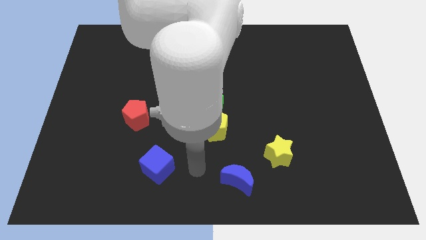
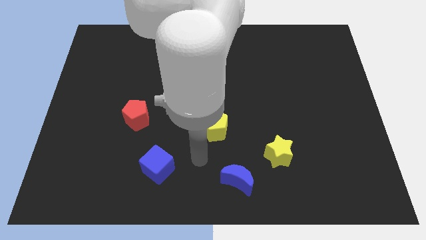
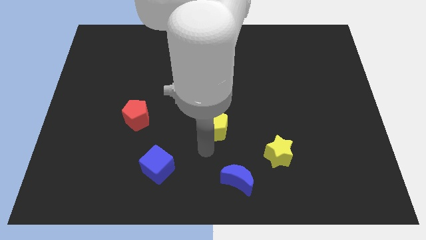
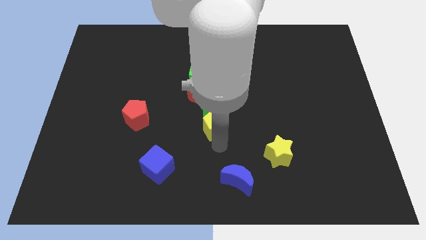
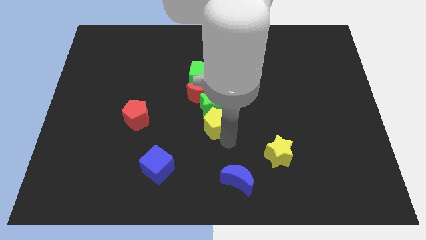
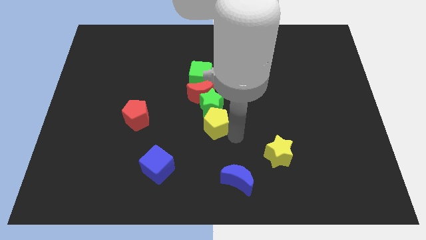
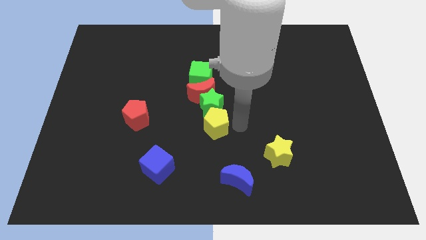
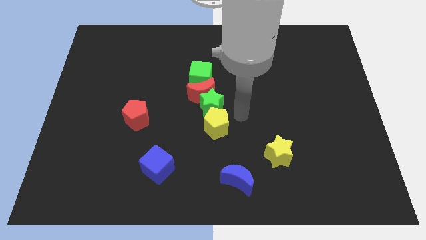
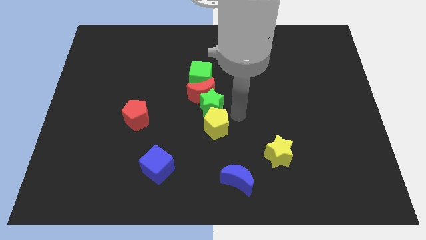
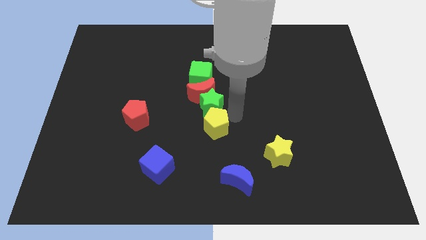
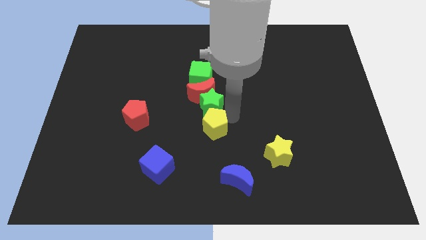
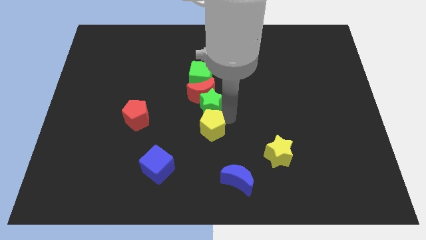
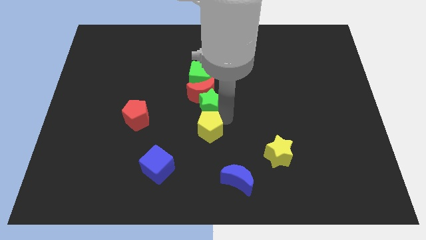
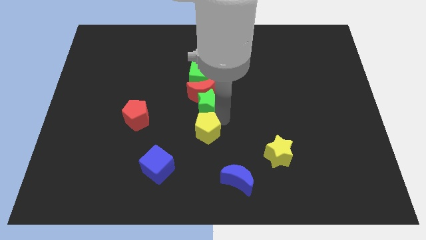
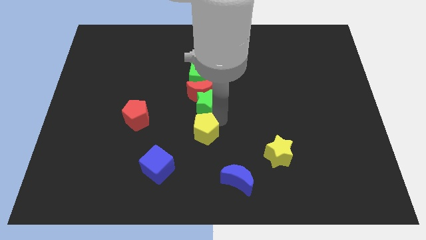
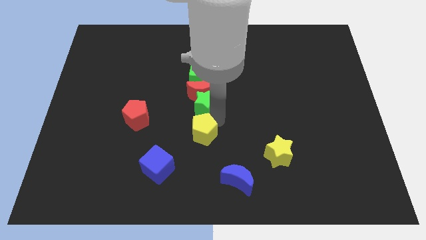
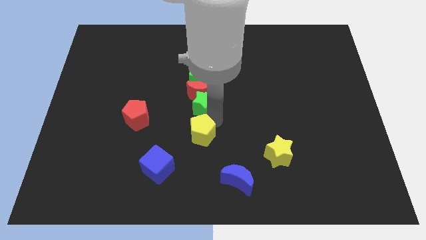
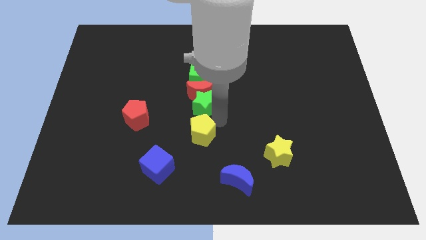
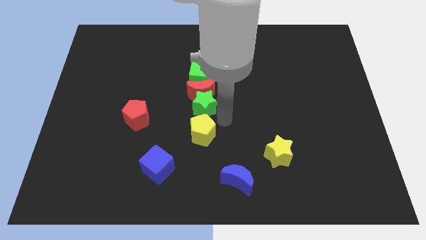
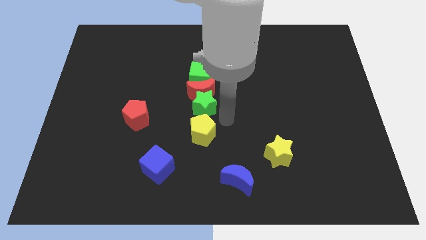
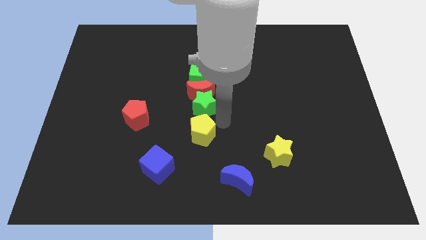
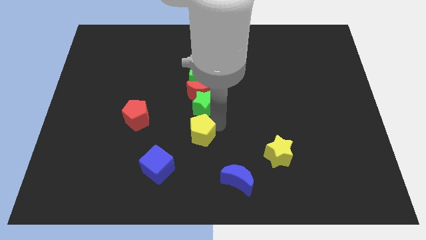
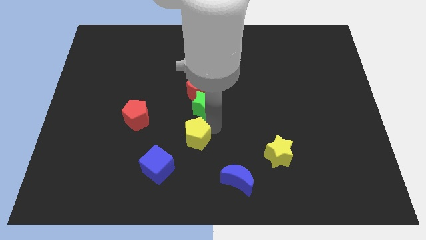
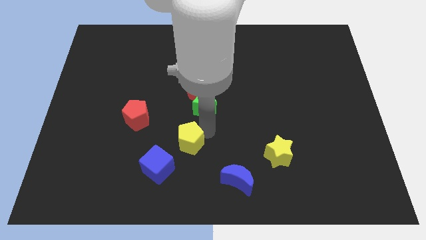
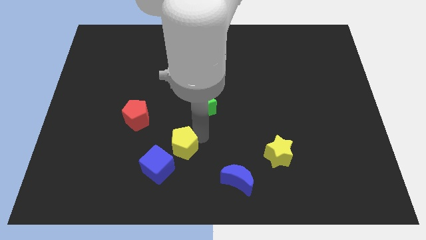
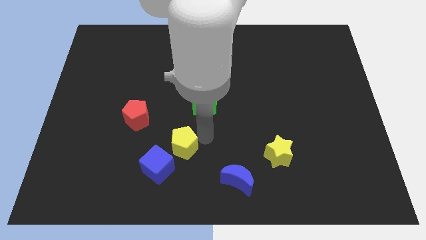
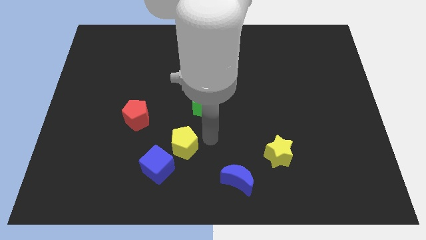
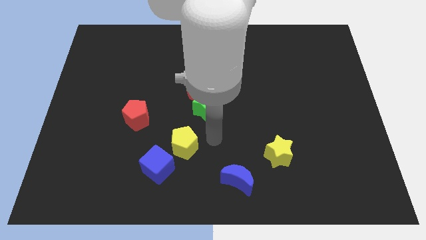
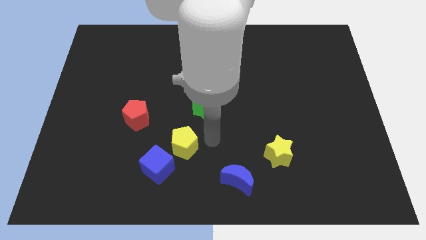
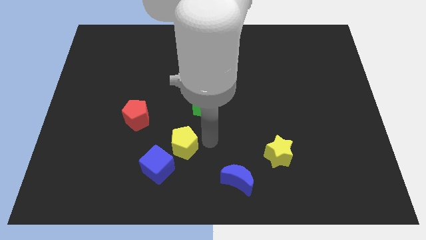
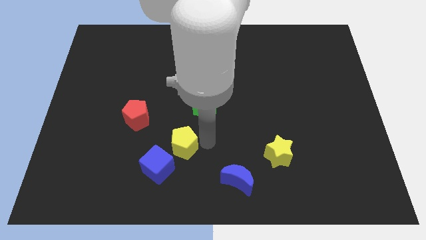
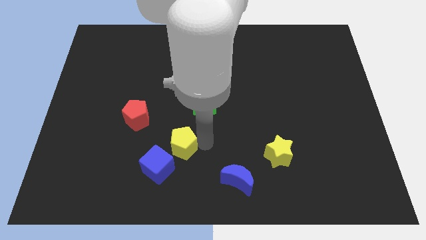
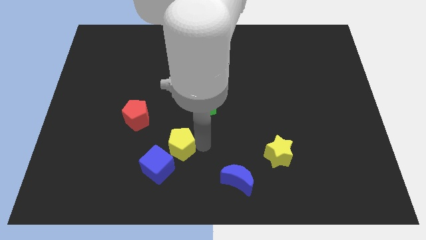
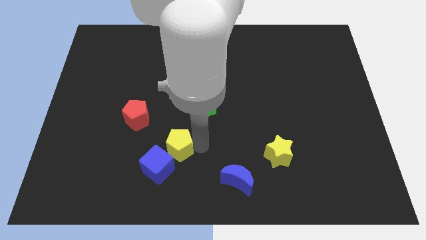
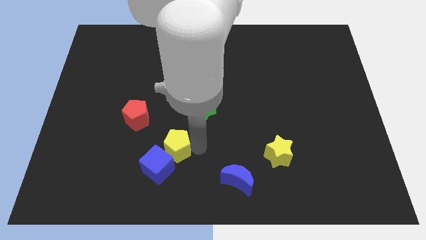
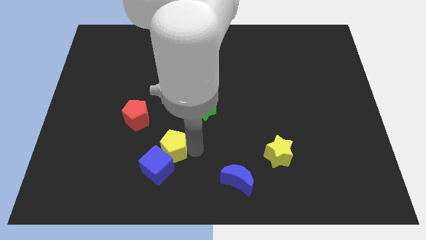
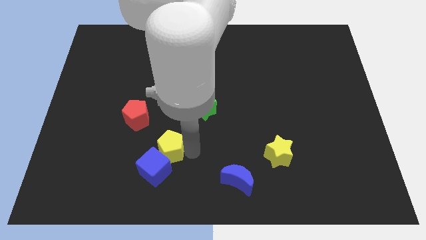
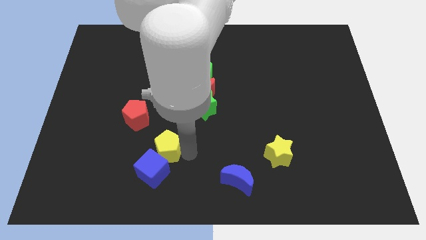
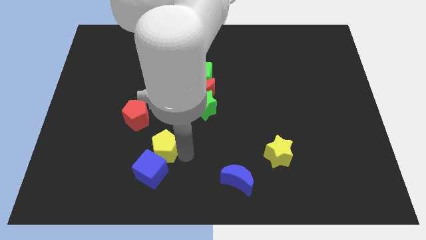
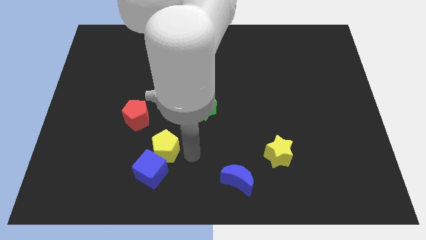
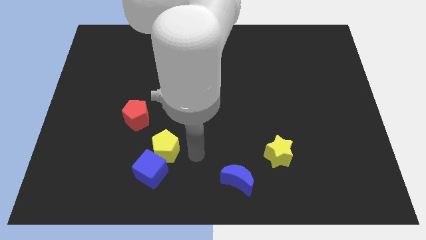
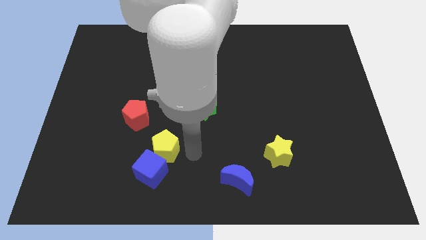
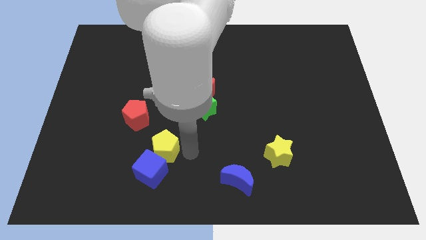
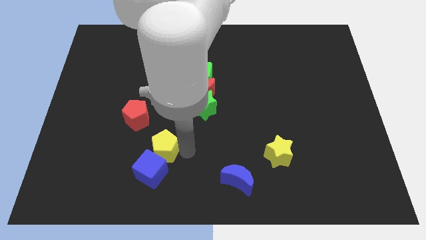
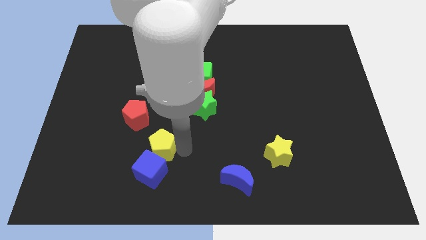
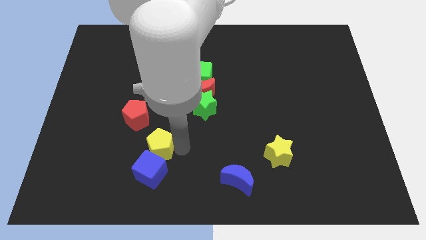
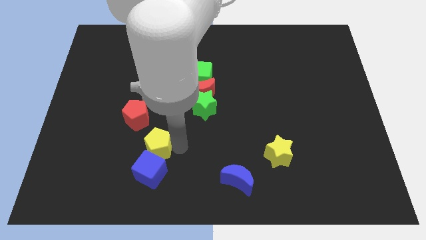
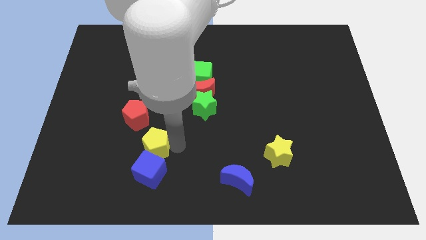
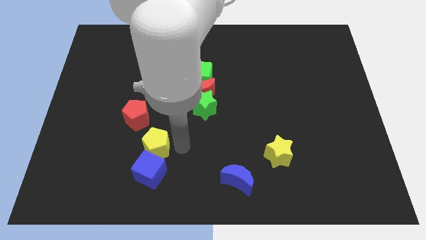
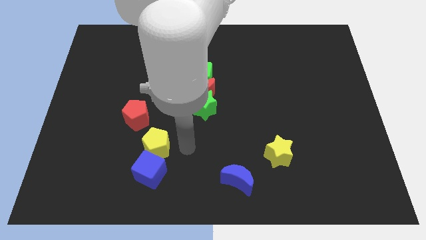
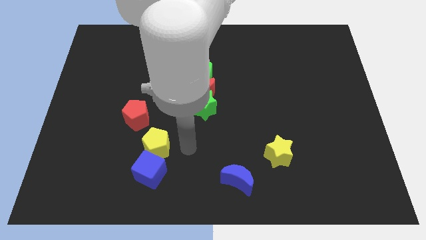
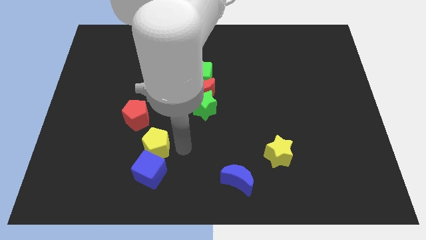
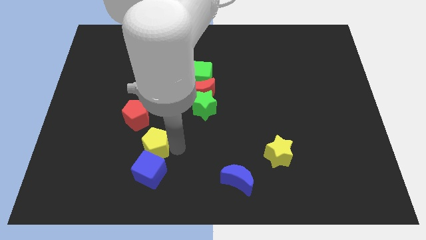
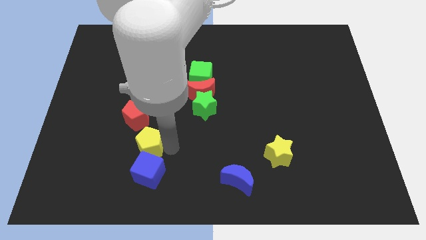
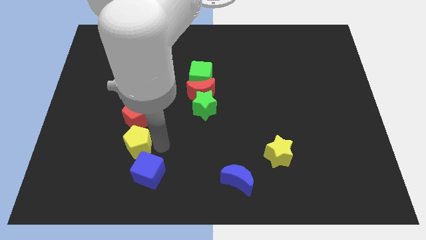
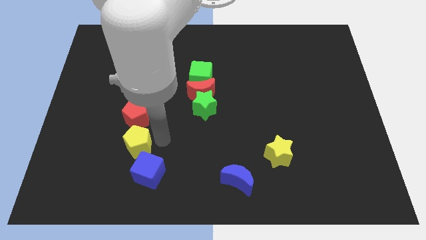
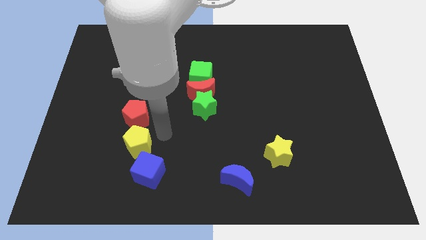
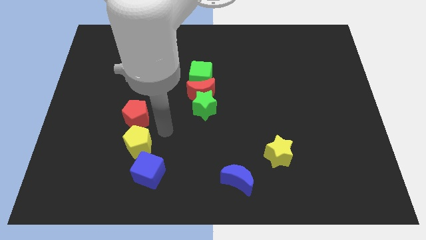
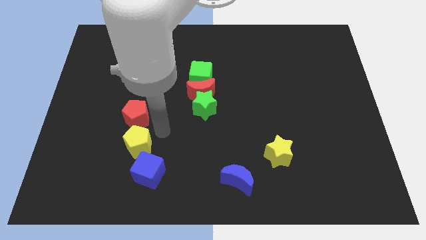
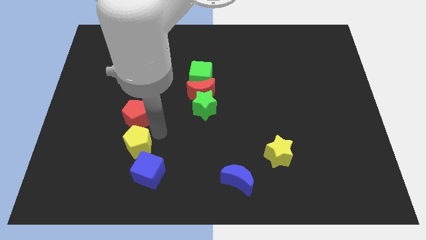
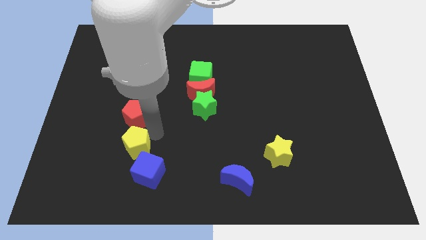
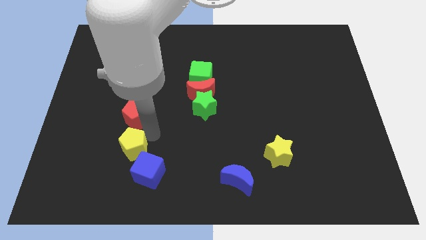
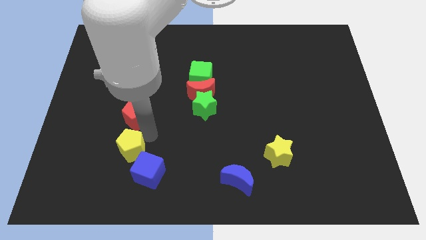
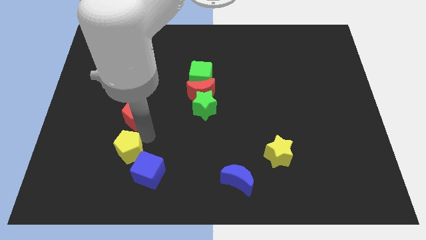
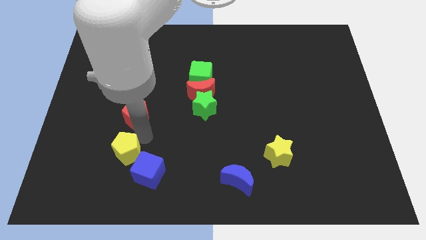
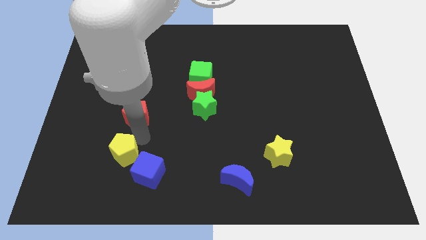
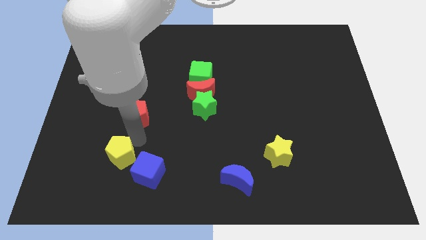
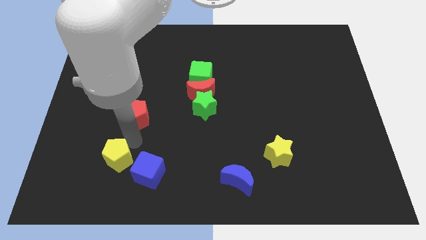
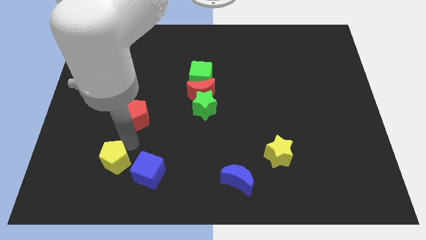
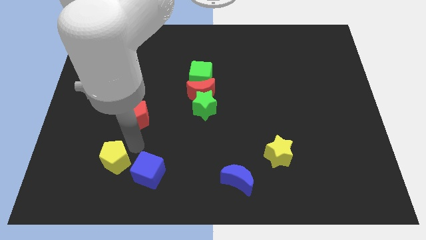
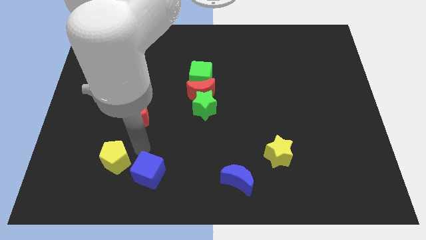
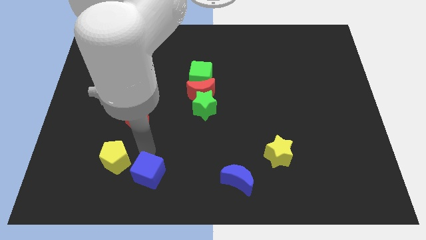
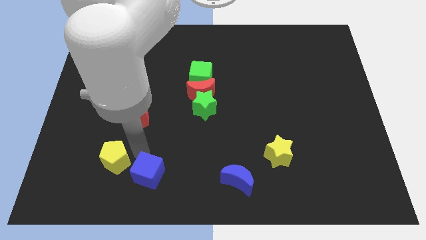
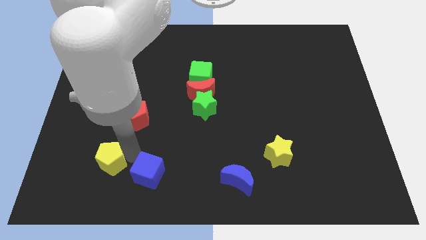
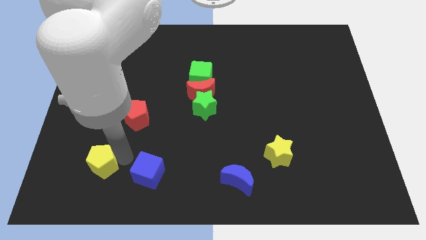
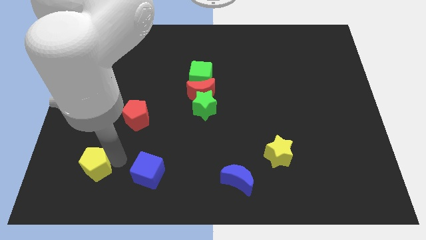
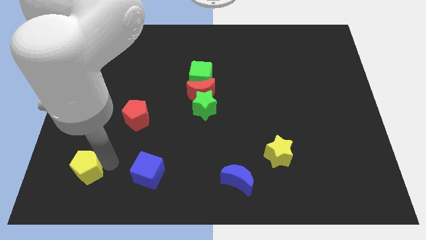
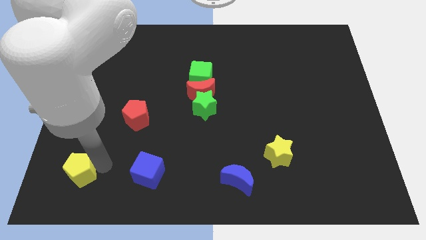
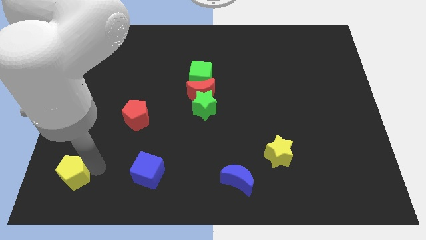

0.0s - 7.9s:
put the yellow pentagon to the bottom left
